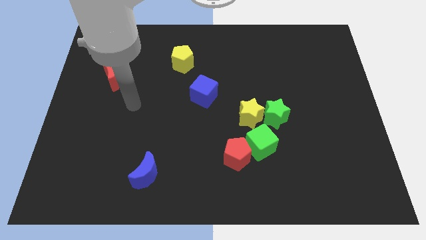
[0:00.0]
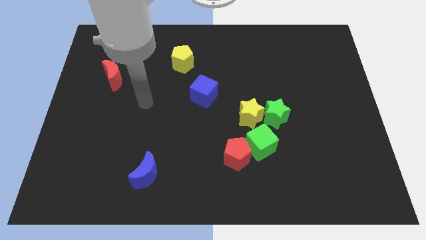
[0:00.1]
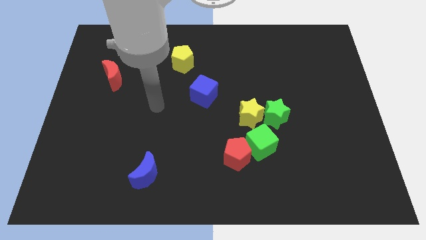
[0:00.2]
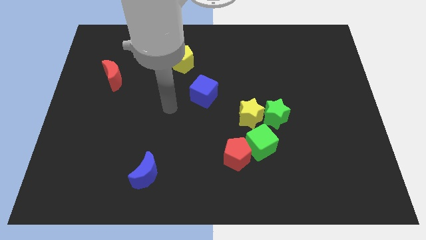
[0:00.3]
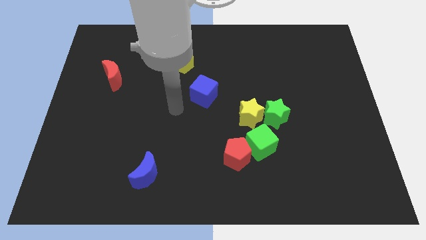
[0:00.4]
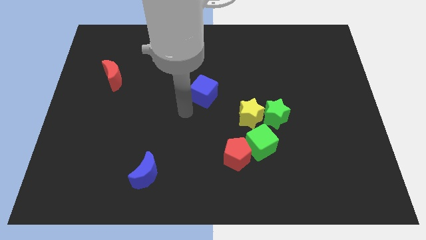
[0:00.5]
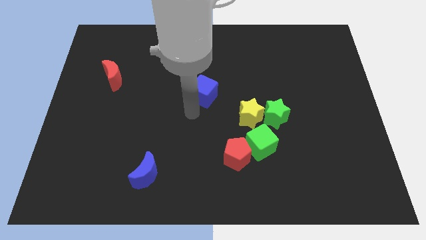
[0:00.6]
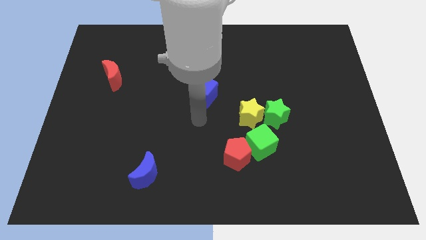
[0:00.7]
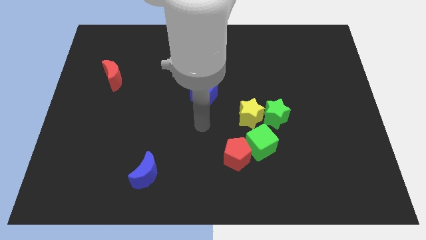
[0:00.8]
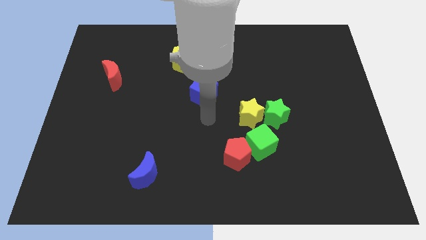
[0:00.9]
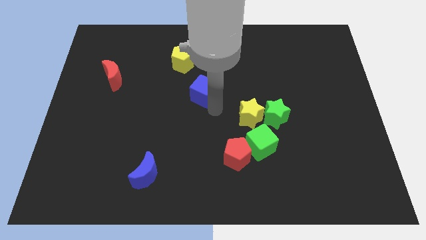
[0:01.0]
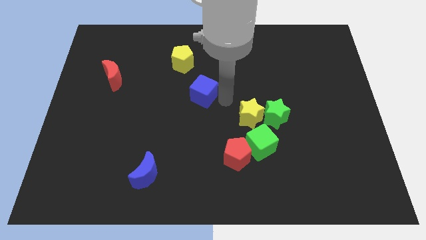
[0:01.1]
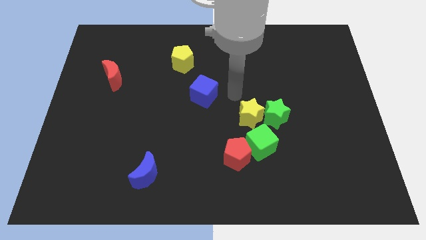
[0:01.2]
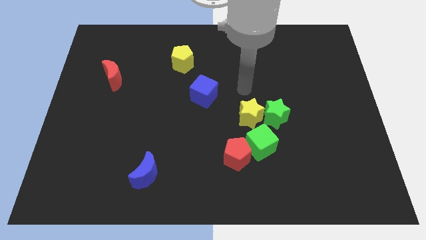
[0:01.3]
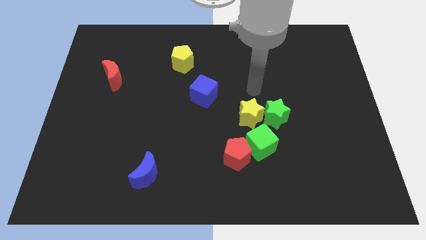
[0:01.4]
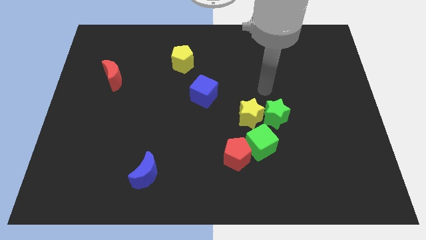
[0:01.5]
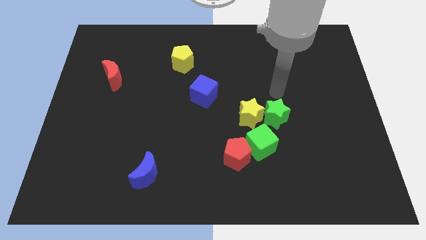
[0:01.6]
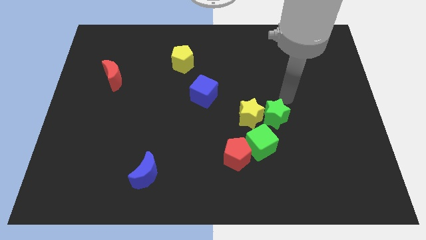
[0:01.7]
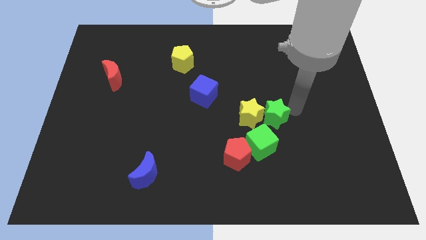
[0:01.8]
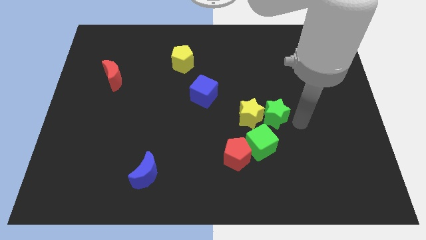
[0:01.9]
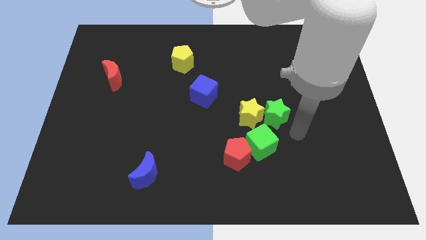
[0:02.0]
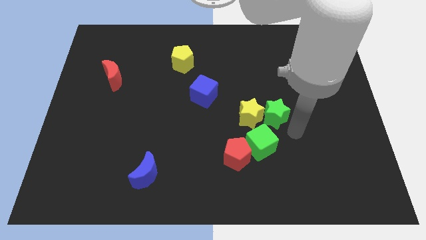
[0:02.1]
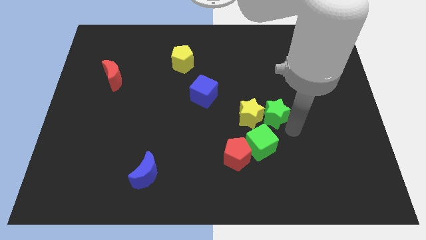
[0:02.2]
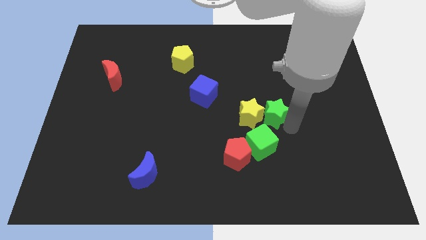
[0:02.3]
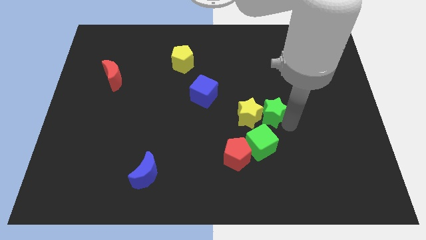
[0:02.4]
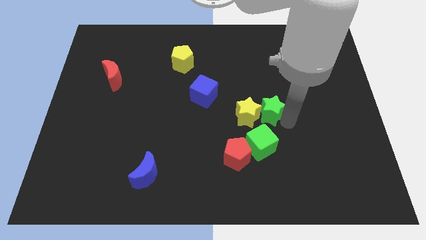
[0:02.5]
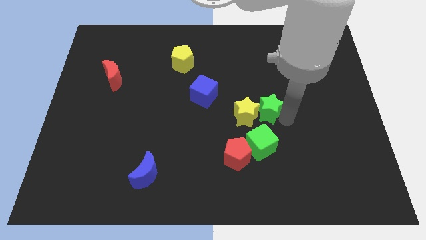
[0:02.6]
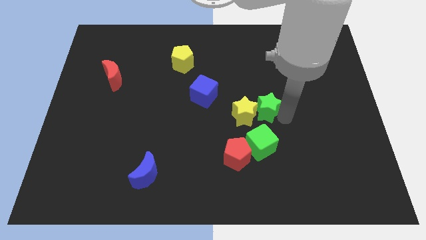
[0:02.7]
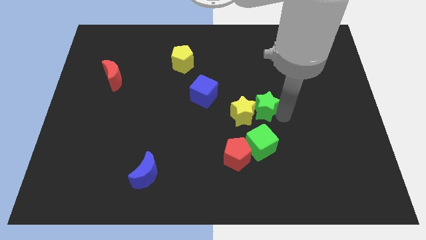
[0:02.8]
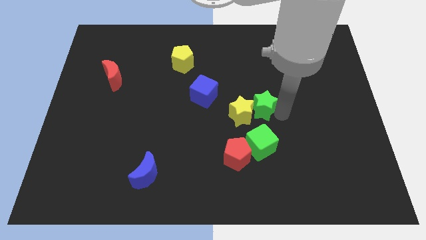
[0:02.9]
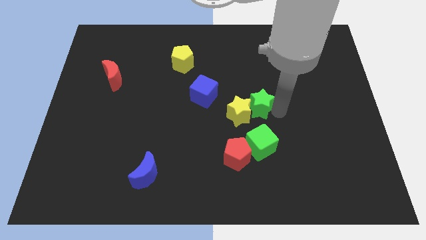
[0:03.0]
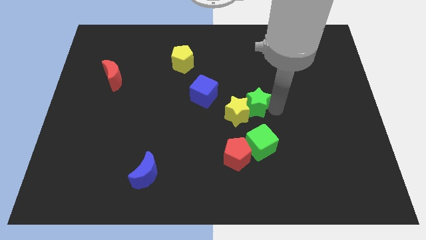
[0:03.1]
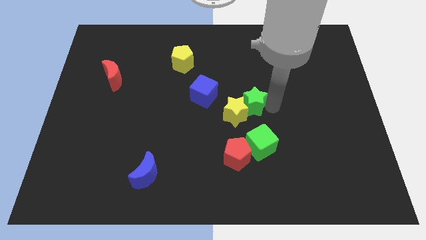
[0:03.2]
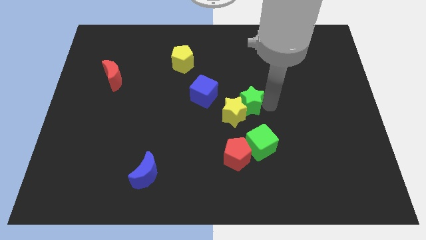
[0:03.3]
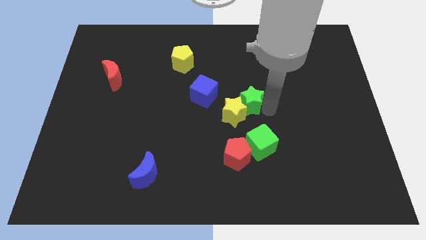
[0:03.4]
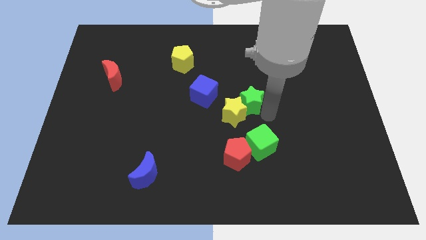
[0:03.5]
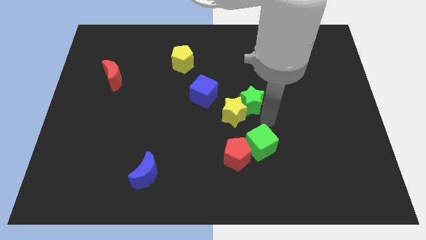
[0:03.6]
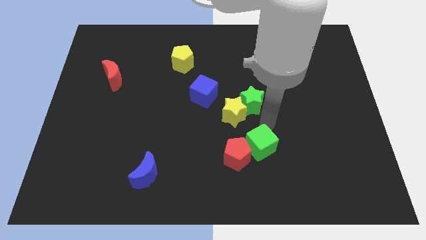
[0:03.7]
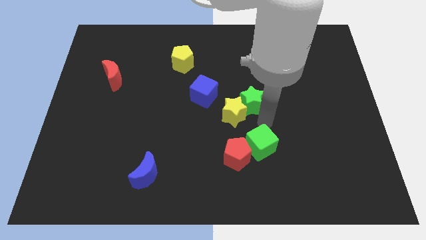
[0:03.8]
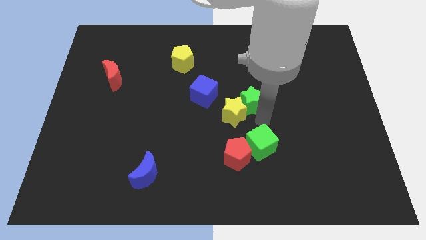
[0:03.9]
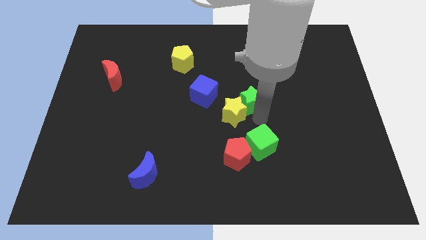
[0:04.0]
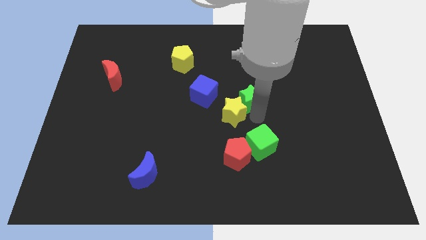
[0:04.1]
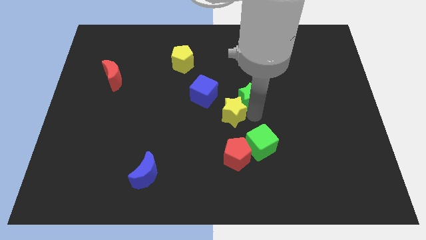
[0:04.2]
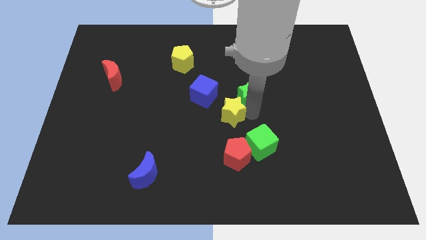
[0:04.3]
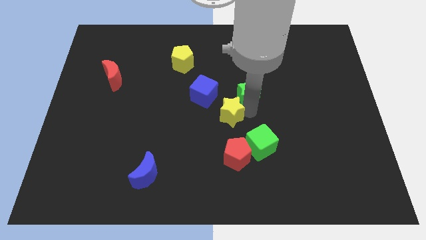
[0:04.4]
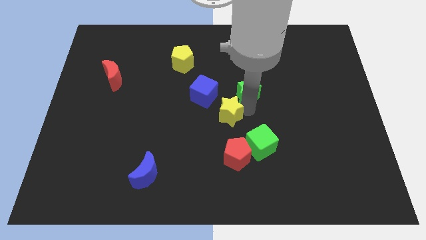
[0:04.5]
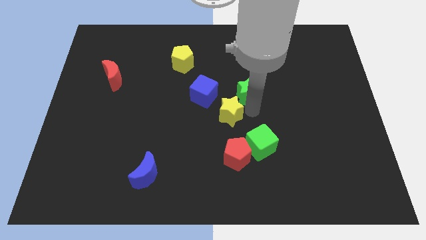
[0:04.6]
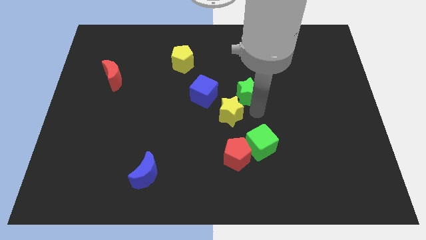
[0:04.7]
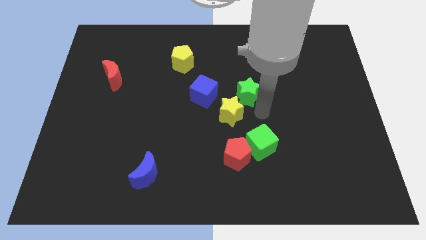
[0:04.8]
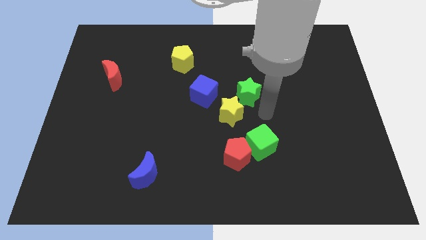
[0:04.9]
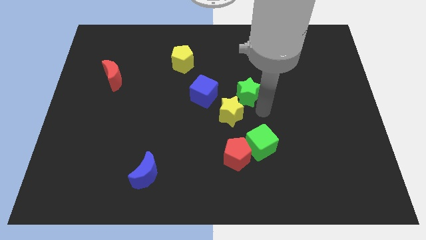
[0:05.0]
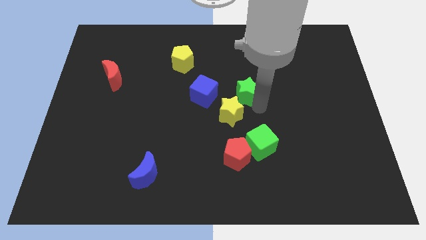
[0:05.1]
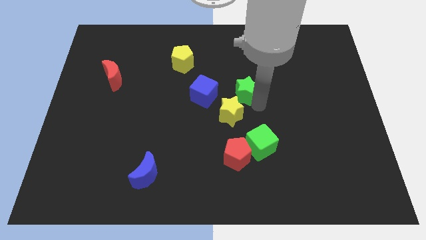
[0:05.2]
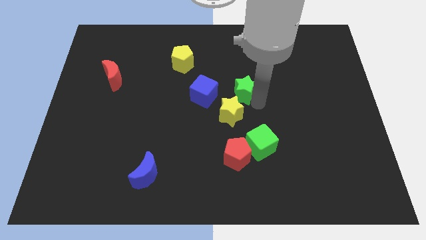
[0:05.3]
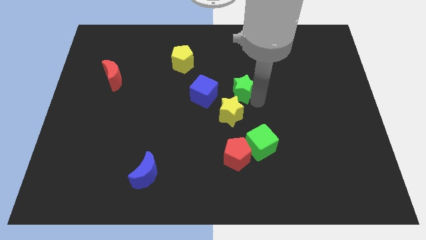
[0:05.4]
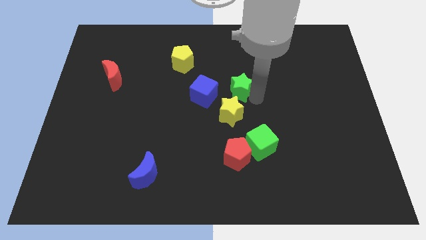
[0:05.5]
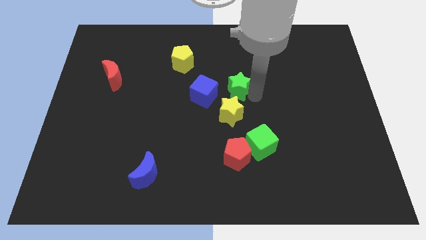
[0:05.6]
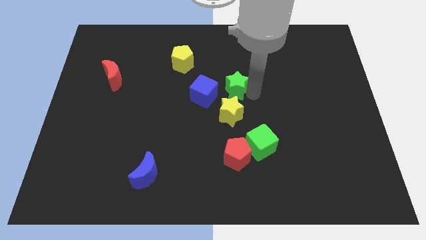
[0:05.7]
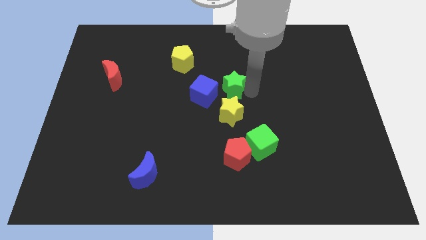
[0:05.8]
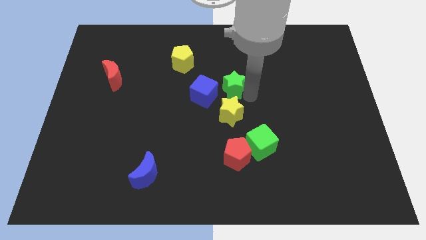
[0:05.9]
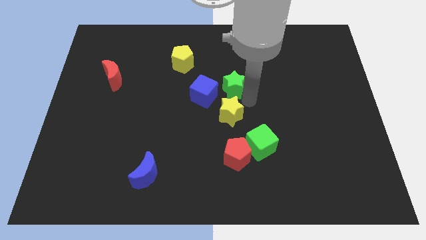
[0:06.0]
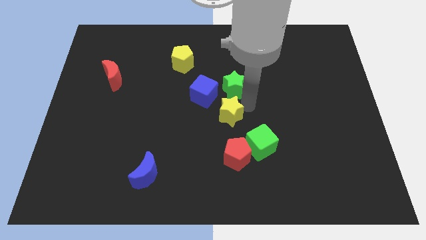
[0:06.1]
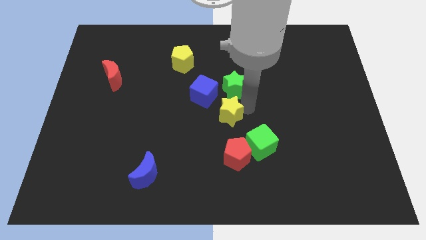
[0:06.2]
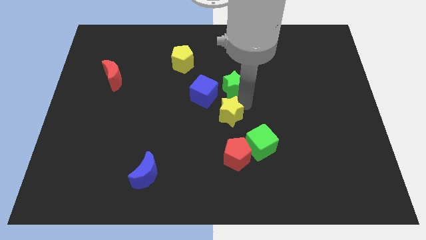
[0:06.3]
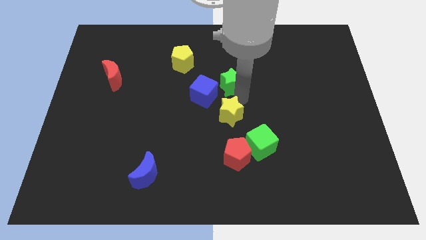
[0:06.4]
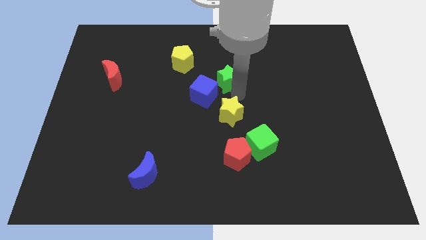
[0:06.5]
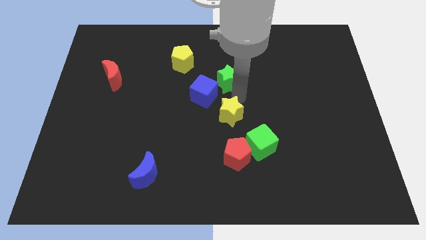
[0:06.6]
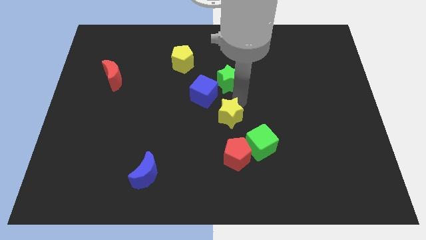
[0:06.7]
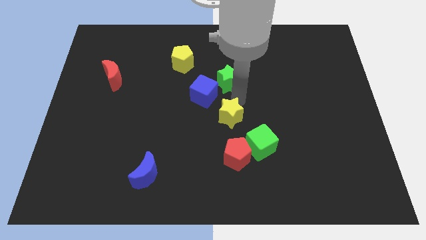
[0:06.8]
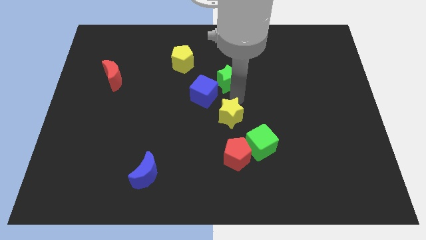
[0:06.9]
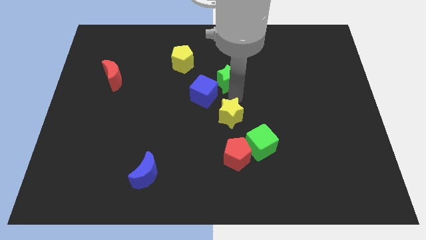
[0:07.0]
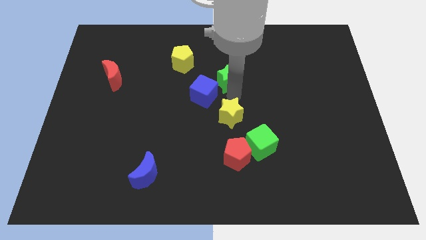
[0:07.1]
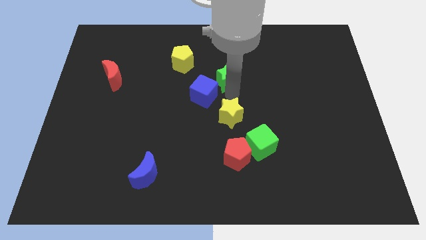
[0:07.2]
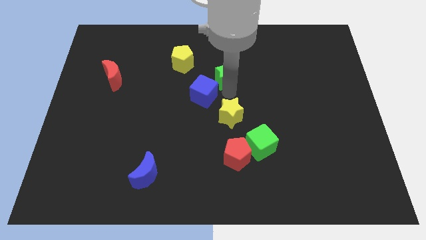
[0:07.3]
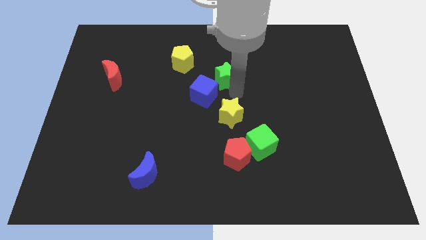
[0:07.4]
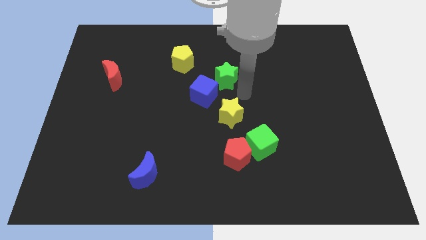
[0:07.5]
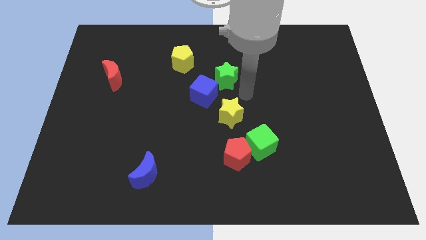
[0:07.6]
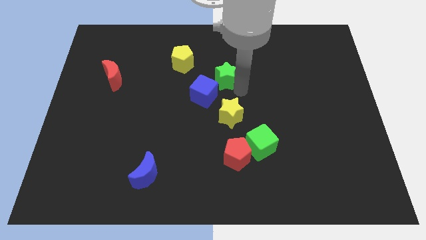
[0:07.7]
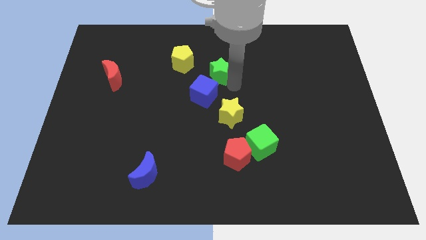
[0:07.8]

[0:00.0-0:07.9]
move the green star to the top side of the blue cube

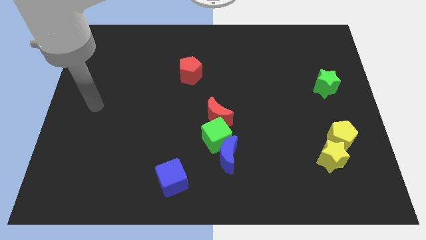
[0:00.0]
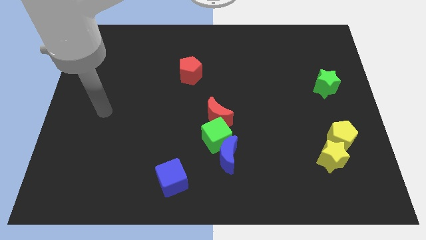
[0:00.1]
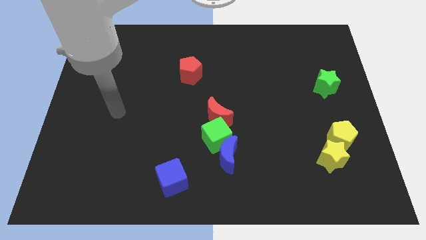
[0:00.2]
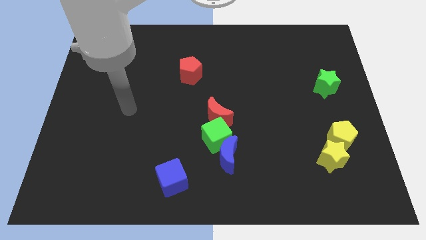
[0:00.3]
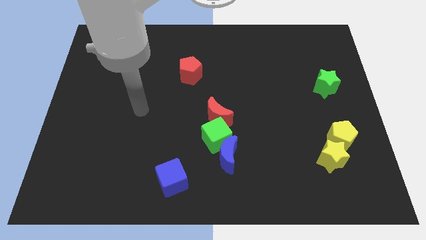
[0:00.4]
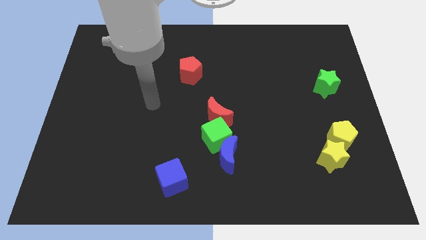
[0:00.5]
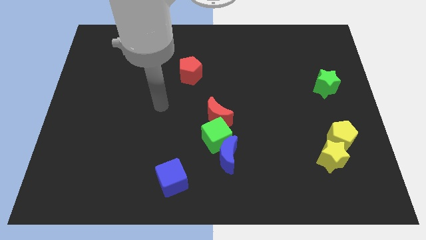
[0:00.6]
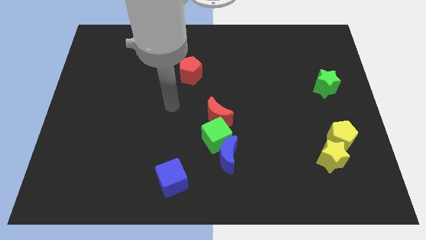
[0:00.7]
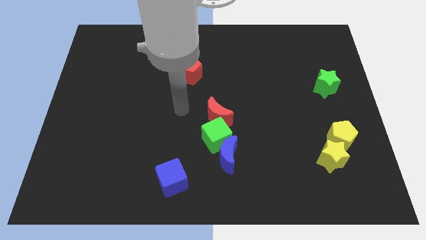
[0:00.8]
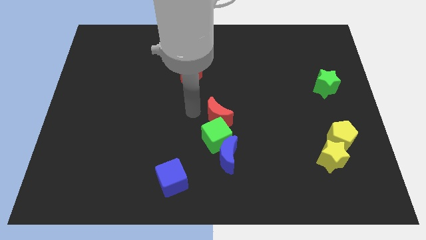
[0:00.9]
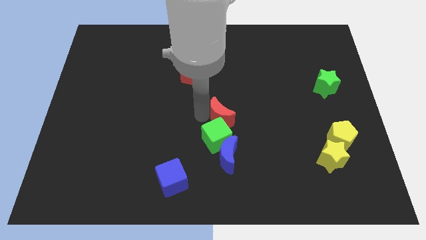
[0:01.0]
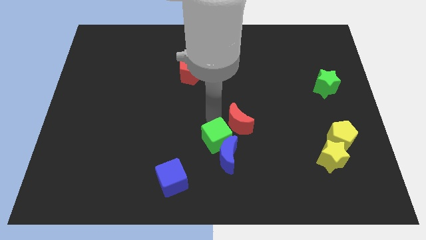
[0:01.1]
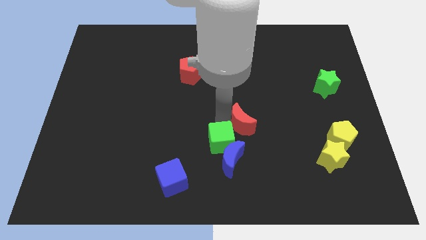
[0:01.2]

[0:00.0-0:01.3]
move the blue moon to the right of the blue cube
